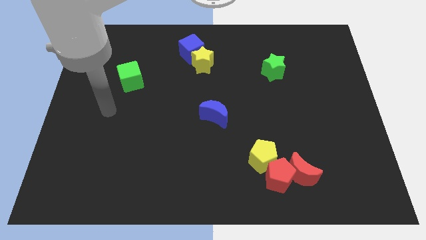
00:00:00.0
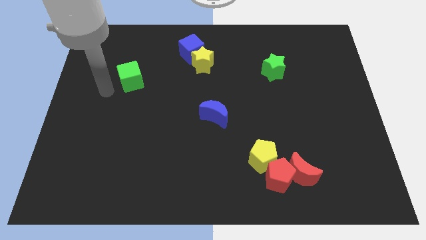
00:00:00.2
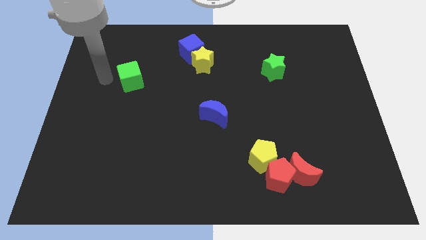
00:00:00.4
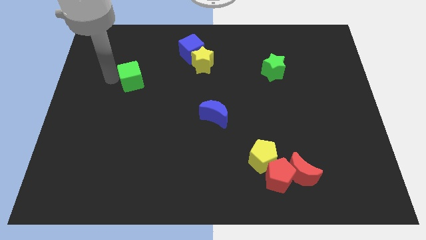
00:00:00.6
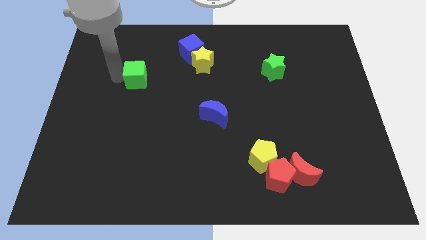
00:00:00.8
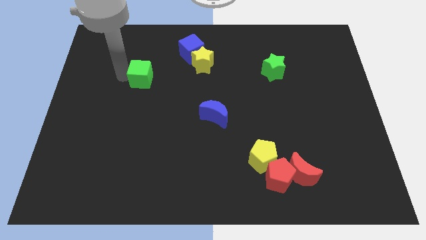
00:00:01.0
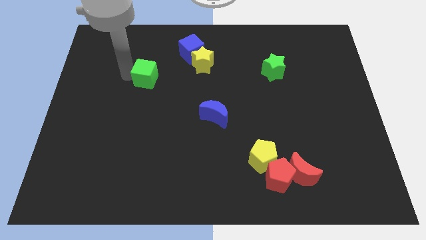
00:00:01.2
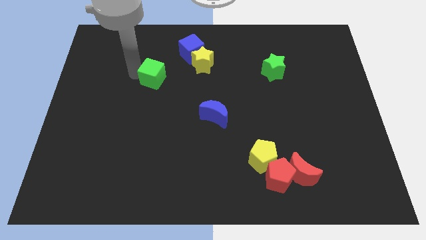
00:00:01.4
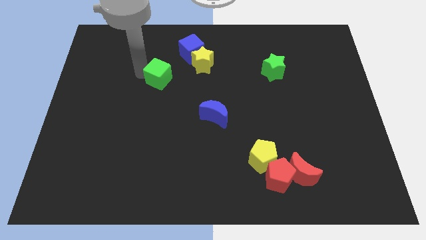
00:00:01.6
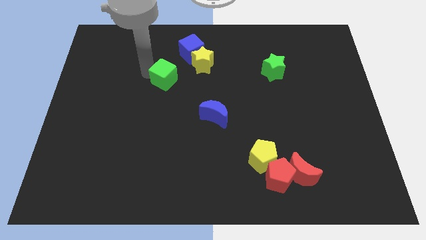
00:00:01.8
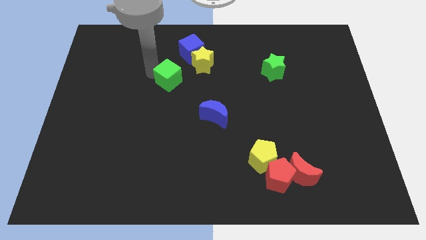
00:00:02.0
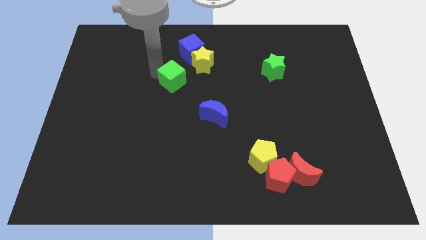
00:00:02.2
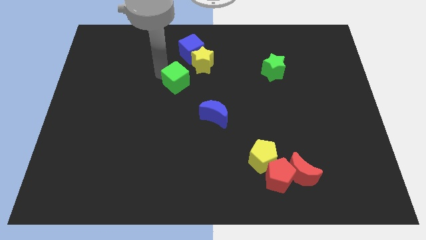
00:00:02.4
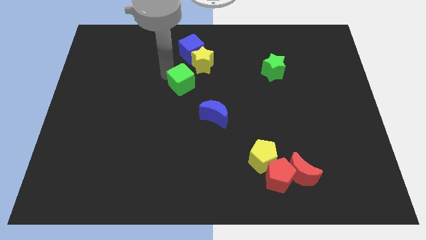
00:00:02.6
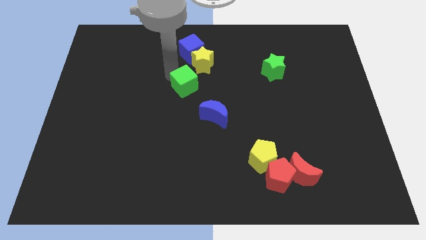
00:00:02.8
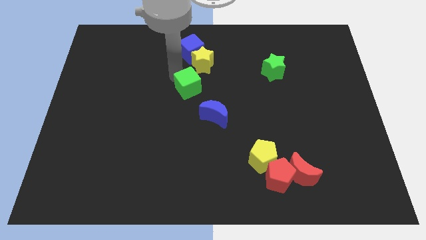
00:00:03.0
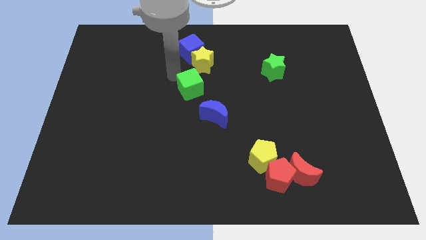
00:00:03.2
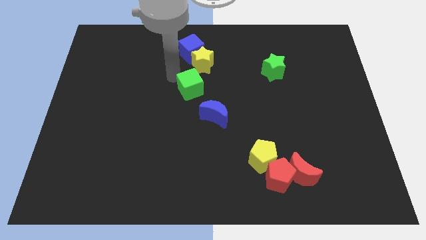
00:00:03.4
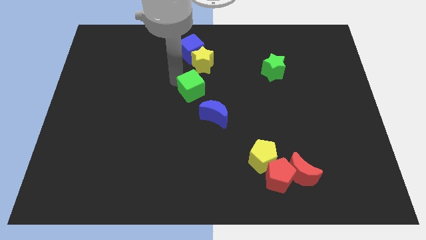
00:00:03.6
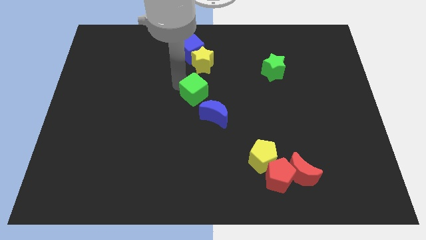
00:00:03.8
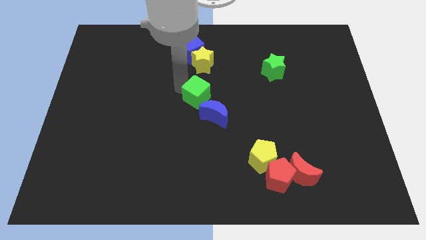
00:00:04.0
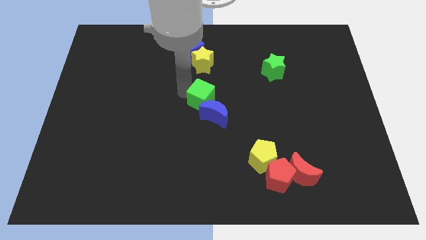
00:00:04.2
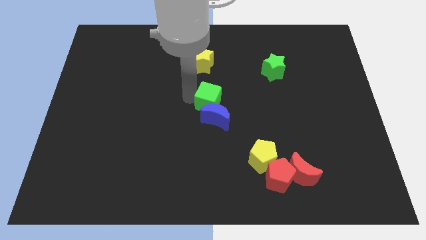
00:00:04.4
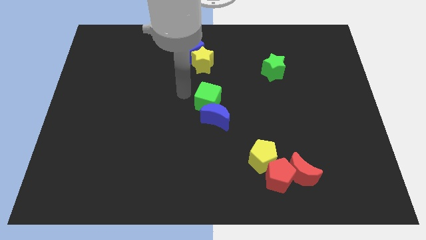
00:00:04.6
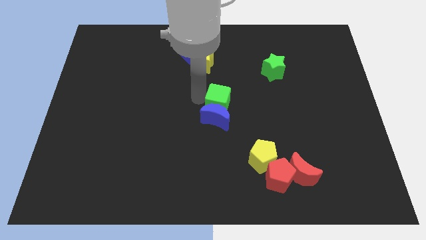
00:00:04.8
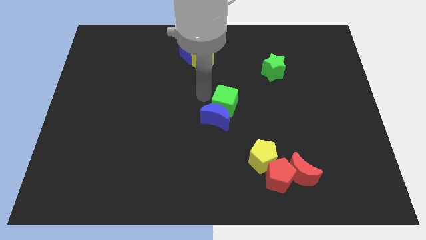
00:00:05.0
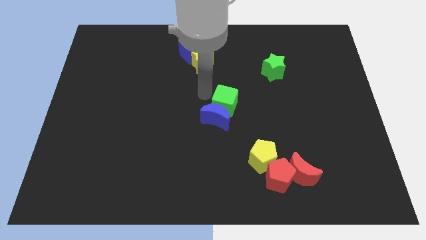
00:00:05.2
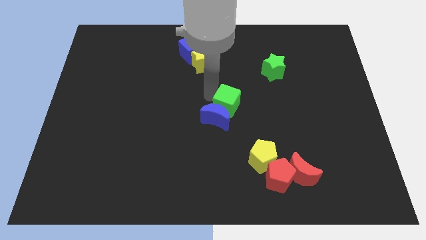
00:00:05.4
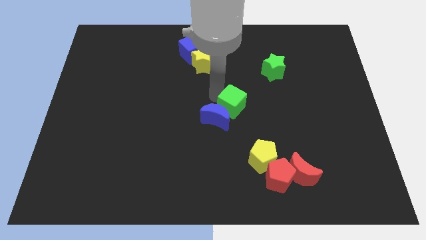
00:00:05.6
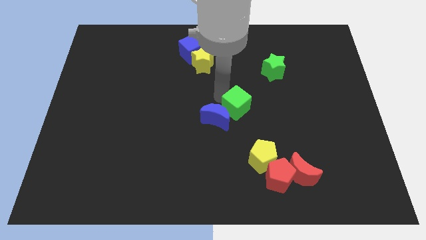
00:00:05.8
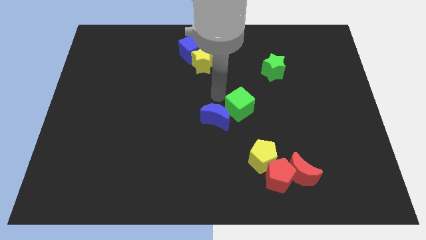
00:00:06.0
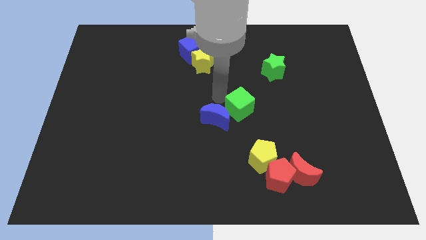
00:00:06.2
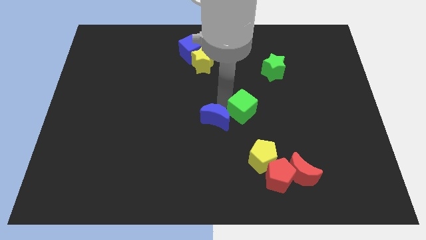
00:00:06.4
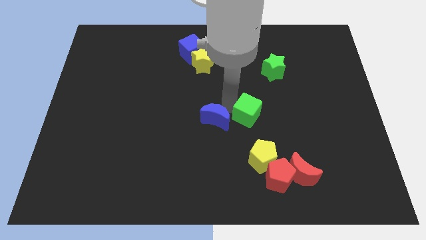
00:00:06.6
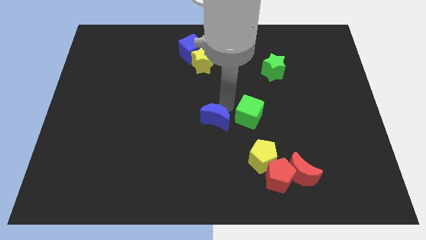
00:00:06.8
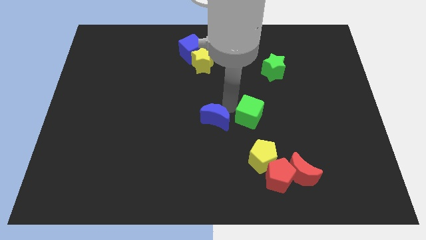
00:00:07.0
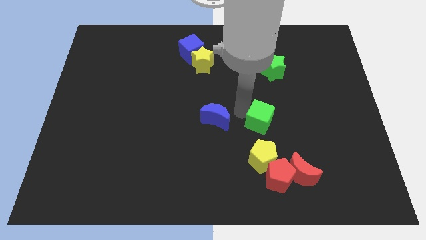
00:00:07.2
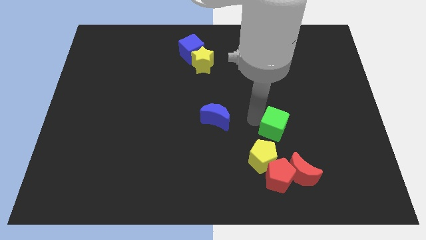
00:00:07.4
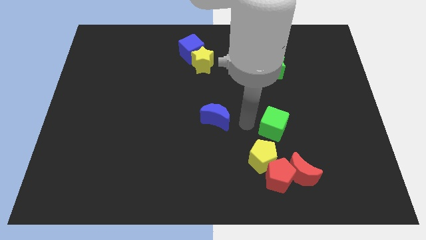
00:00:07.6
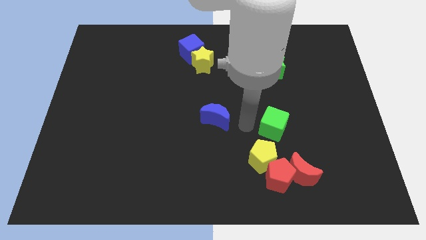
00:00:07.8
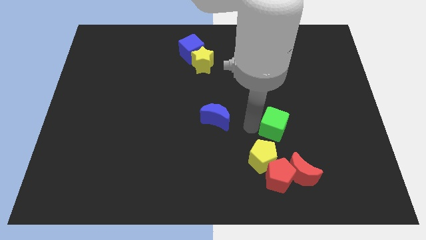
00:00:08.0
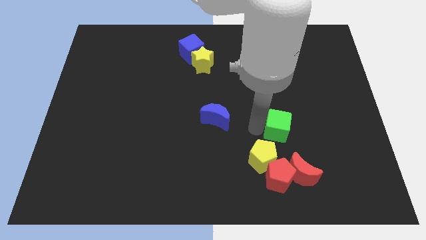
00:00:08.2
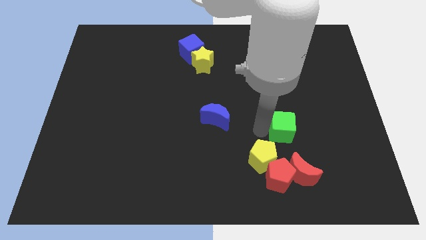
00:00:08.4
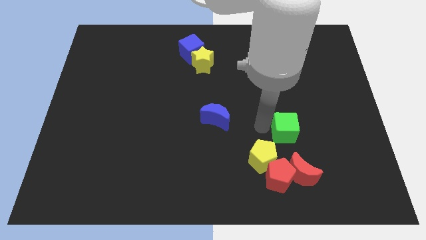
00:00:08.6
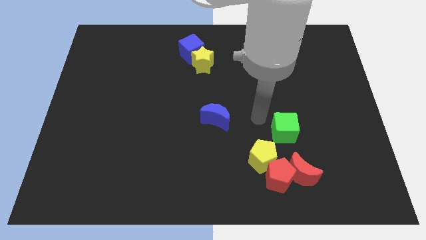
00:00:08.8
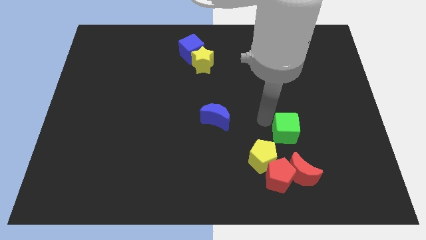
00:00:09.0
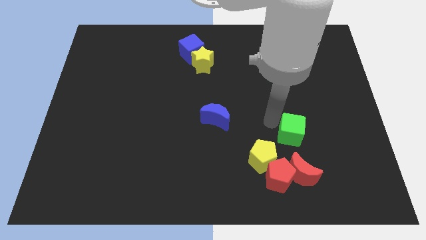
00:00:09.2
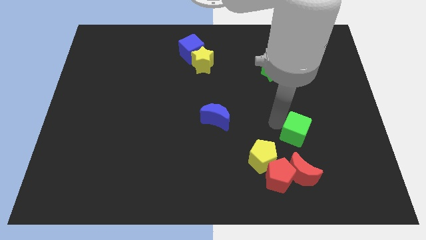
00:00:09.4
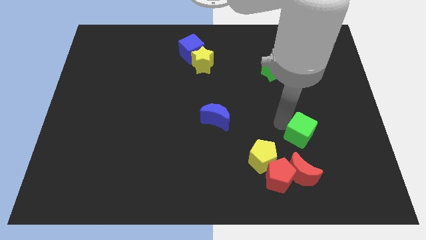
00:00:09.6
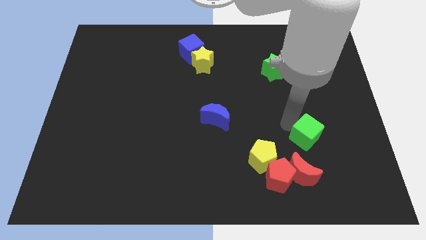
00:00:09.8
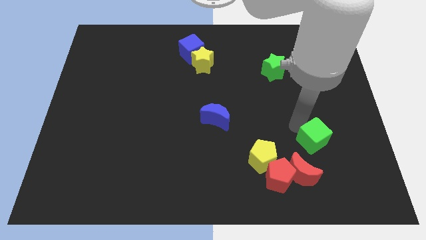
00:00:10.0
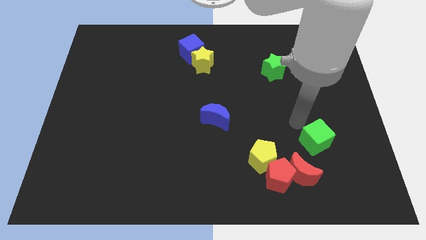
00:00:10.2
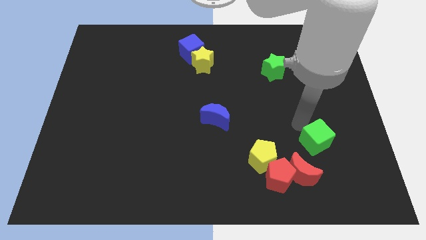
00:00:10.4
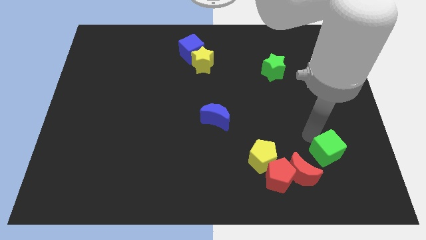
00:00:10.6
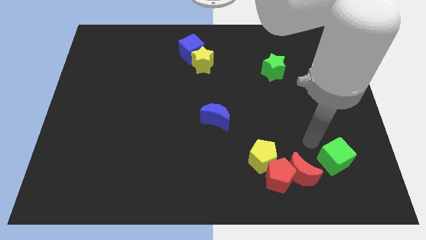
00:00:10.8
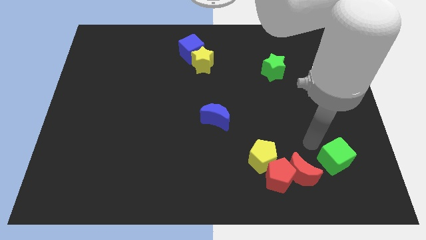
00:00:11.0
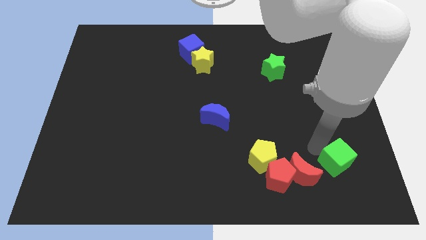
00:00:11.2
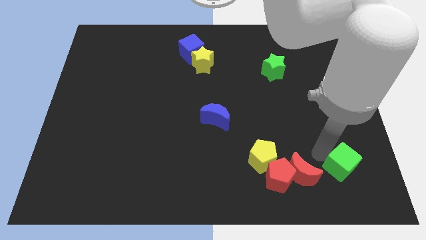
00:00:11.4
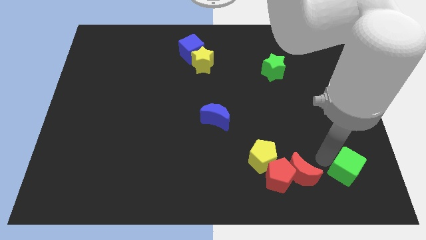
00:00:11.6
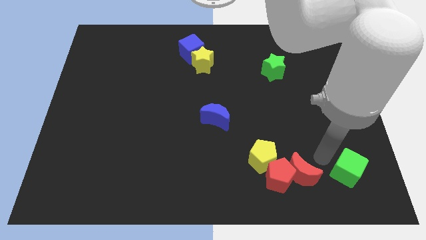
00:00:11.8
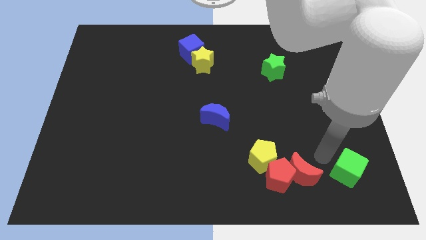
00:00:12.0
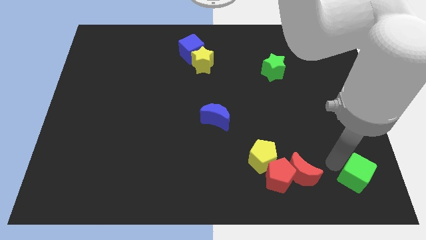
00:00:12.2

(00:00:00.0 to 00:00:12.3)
put the green cube to the bottom right

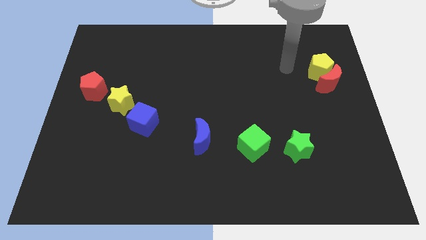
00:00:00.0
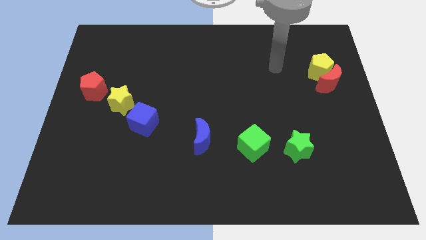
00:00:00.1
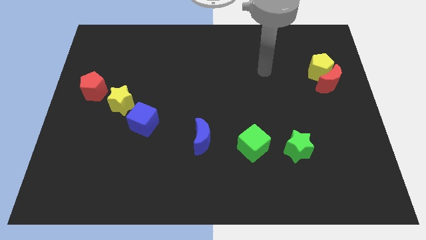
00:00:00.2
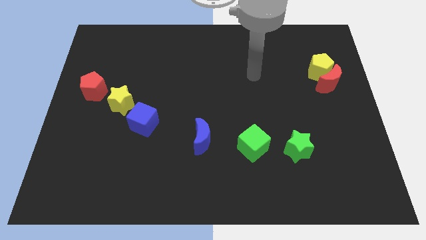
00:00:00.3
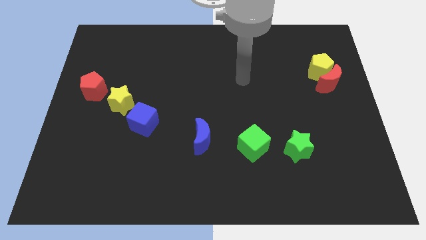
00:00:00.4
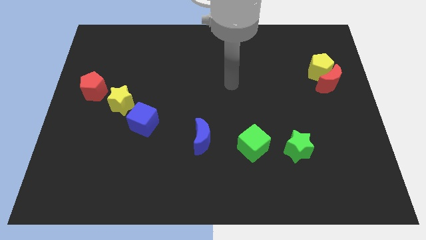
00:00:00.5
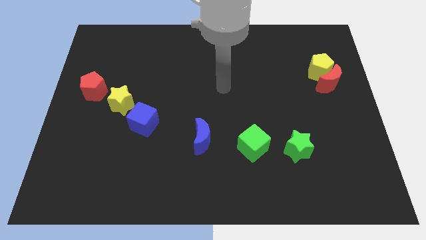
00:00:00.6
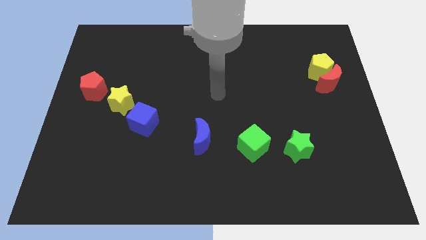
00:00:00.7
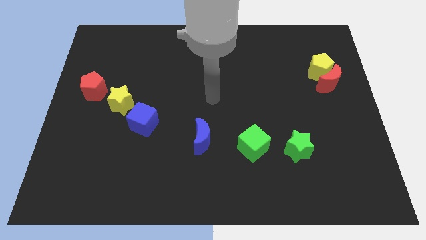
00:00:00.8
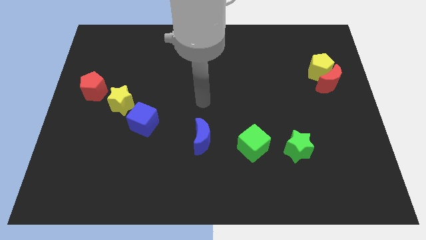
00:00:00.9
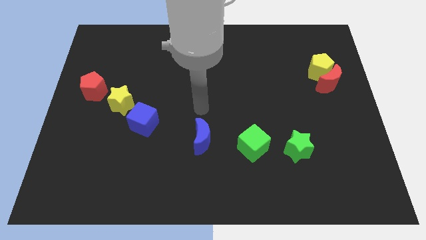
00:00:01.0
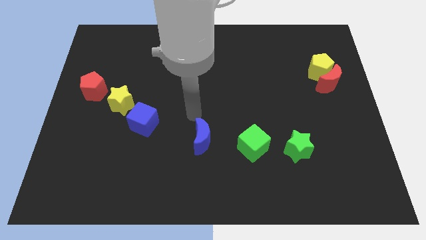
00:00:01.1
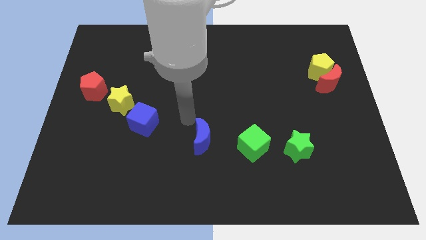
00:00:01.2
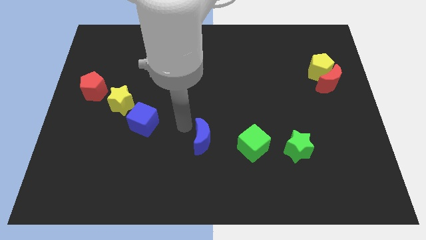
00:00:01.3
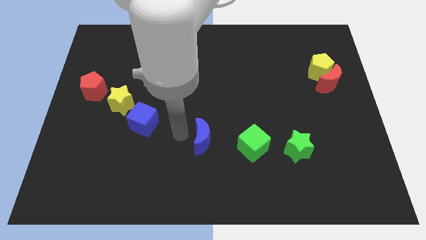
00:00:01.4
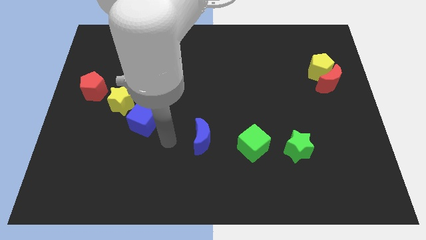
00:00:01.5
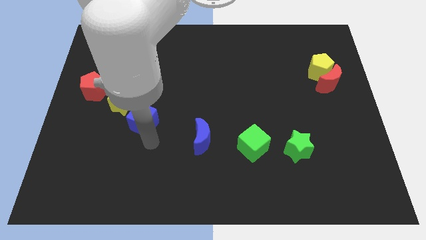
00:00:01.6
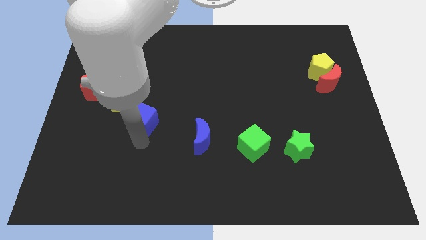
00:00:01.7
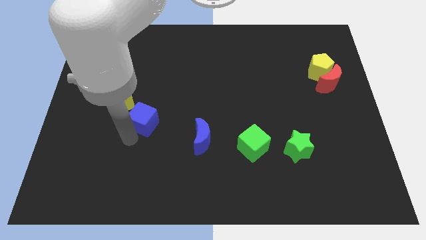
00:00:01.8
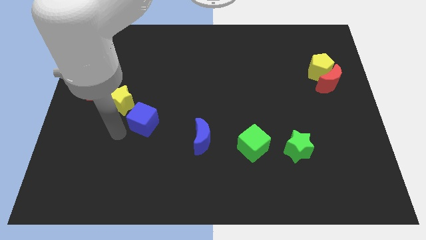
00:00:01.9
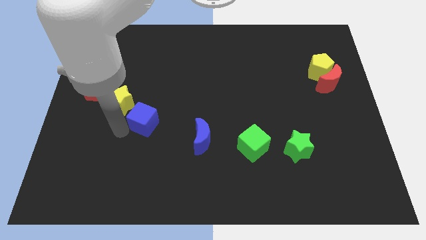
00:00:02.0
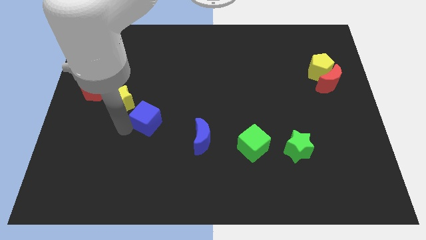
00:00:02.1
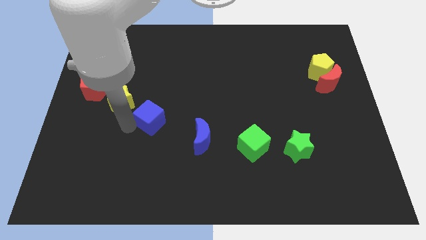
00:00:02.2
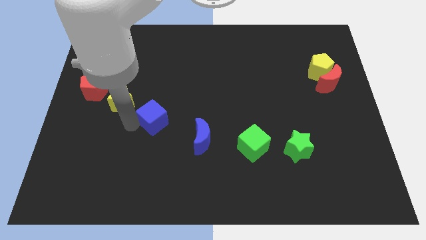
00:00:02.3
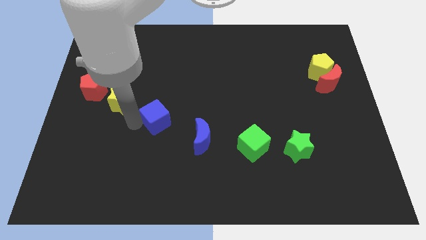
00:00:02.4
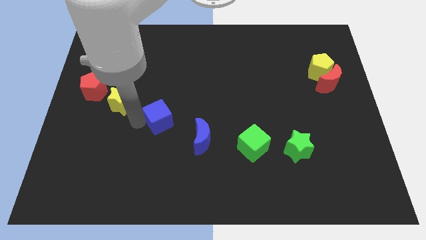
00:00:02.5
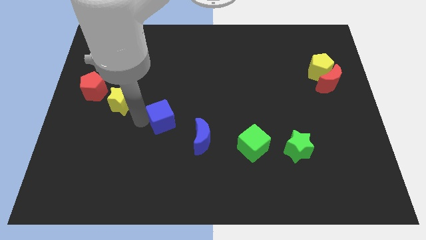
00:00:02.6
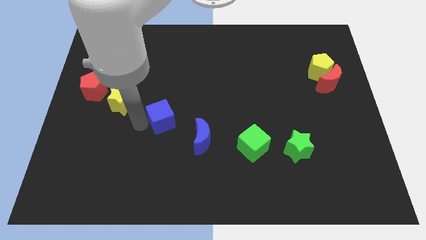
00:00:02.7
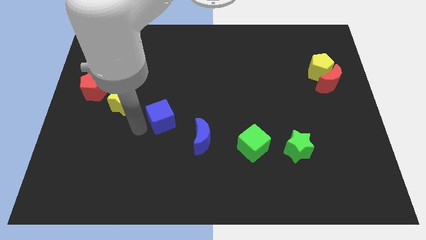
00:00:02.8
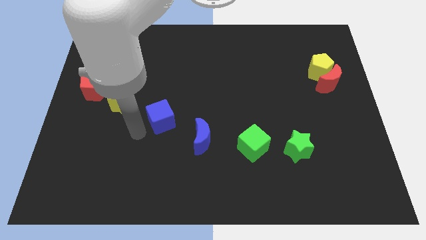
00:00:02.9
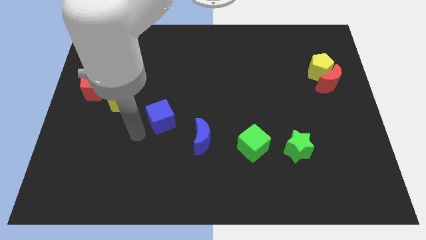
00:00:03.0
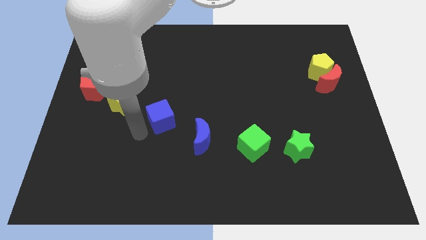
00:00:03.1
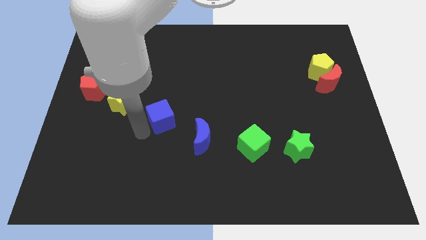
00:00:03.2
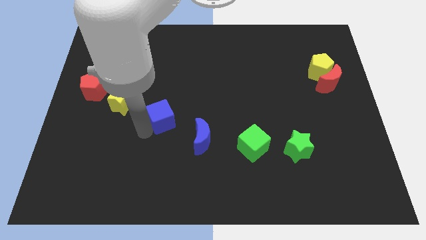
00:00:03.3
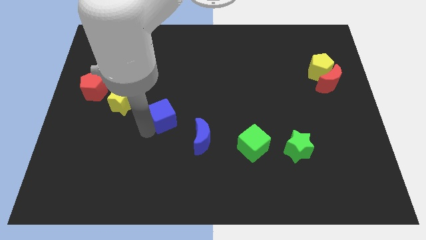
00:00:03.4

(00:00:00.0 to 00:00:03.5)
push the blue cube to the middle
